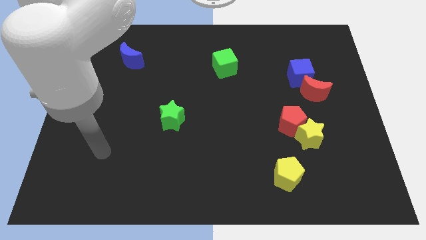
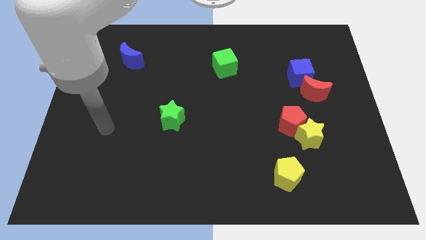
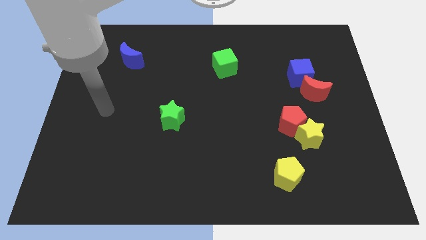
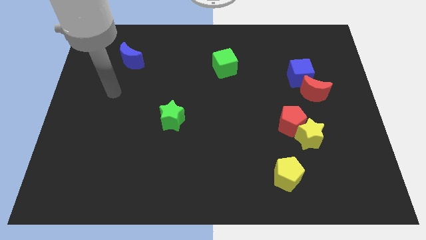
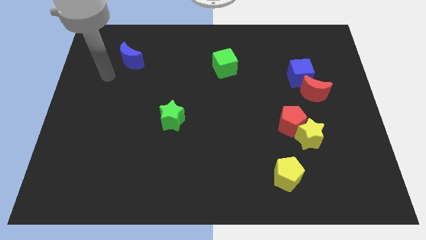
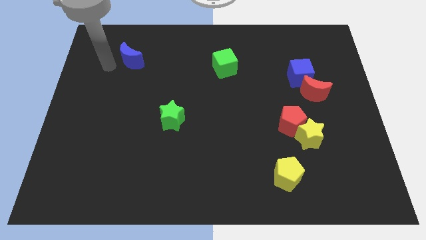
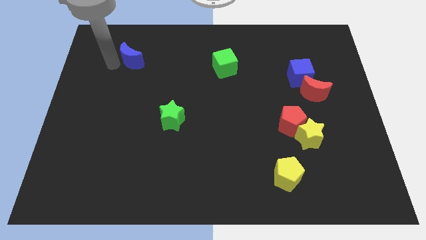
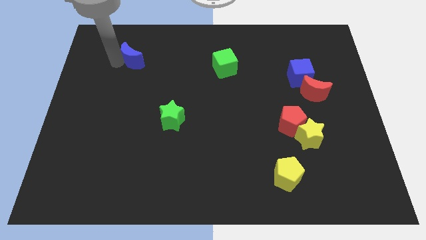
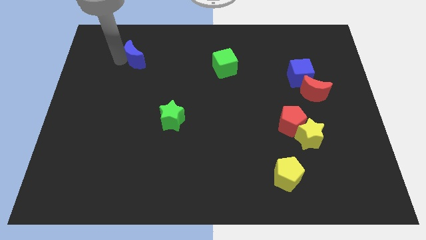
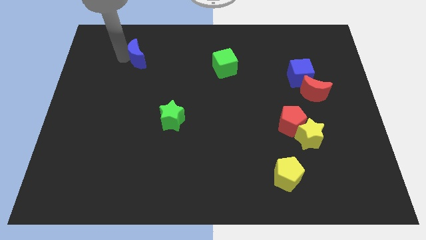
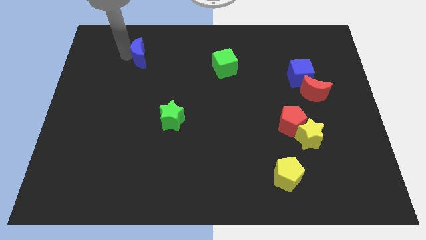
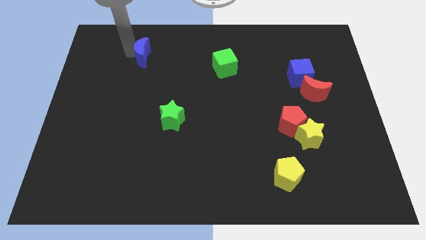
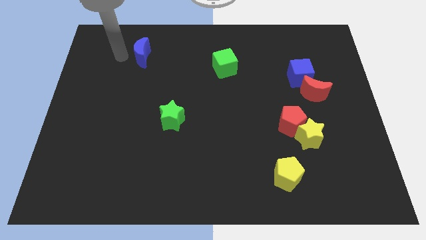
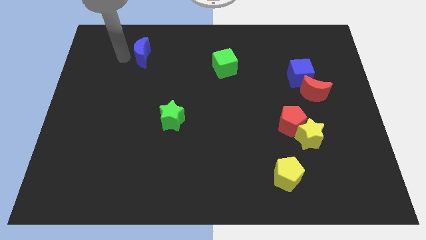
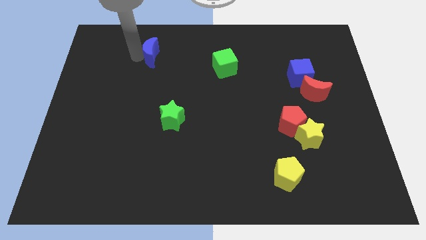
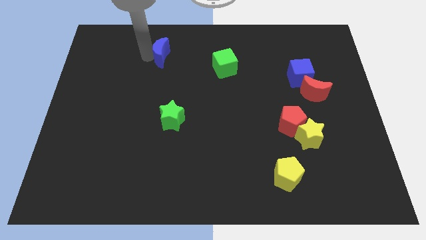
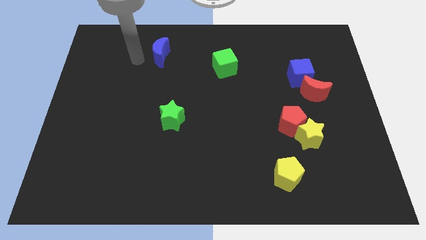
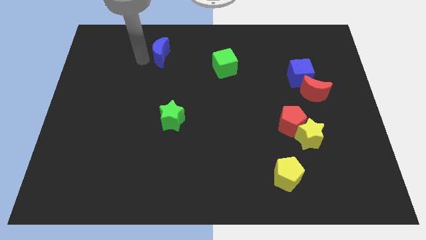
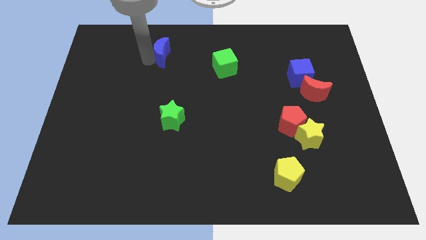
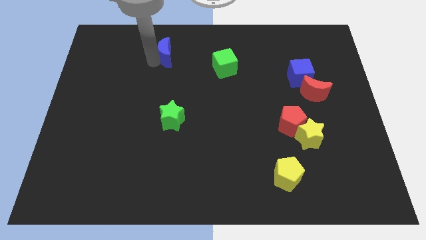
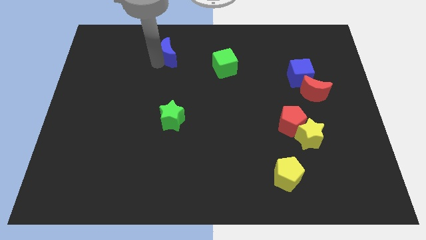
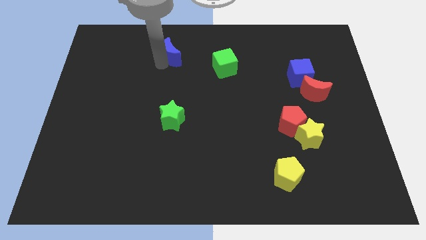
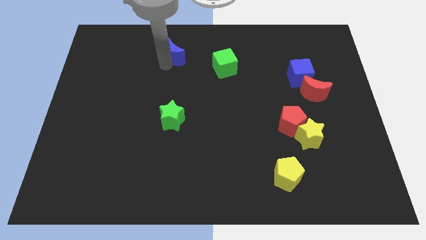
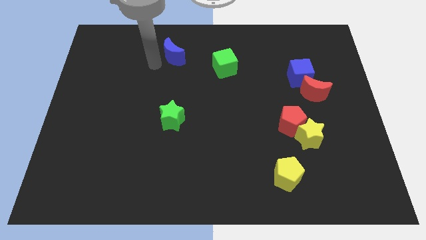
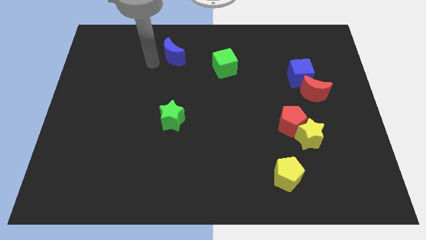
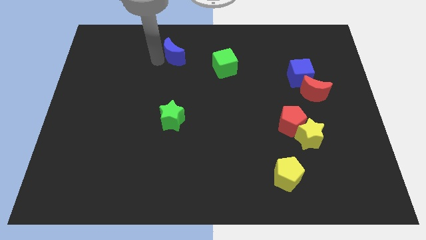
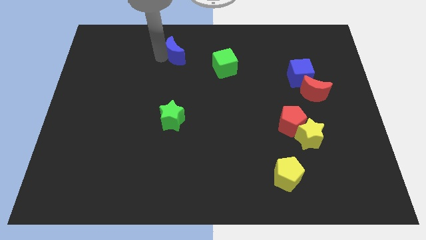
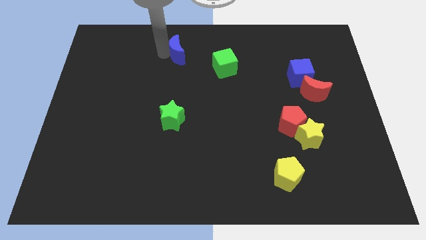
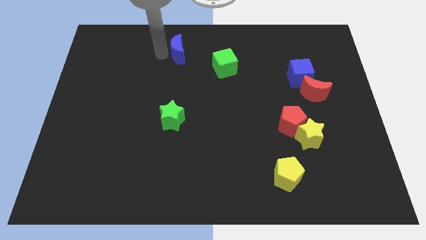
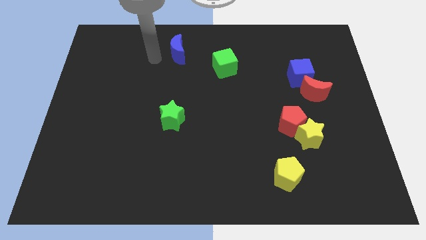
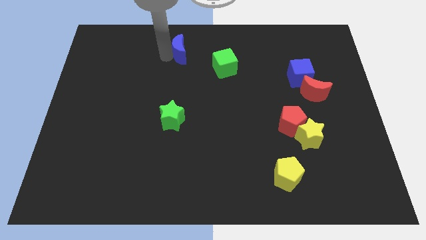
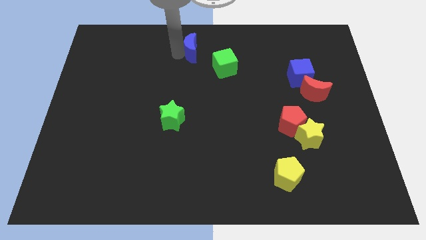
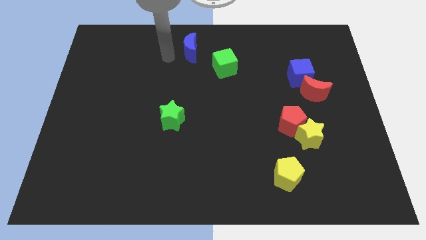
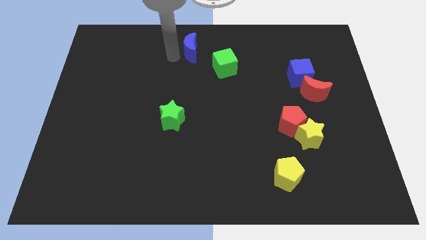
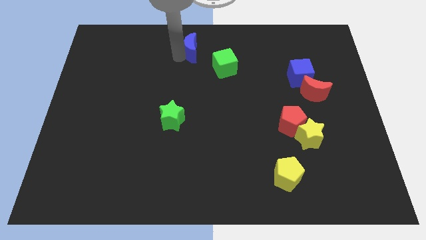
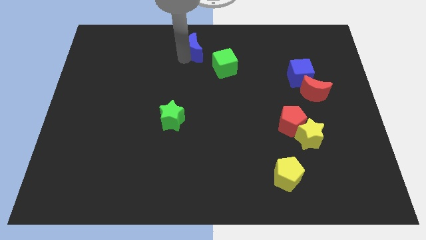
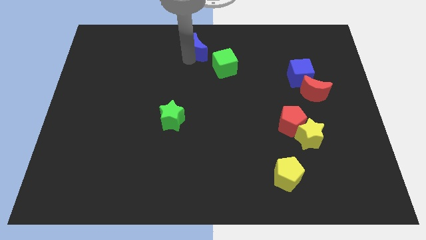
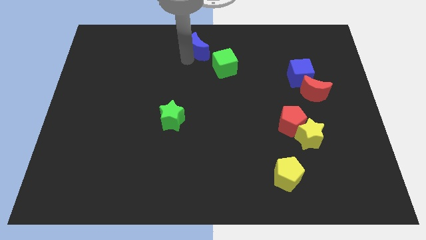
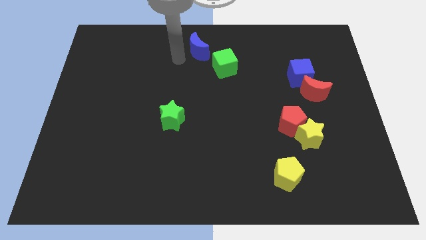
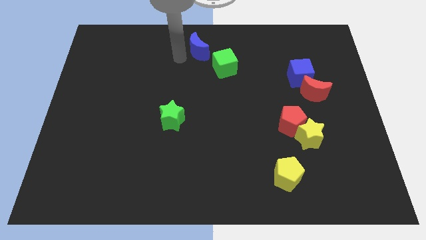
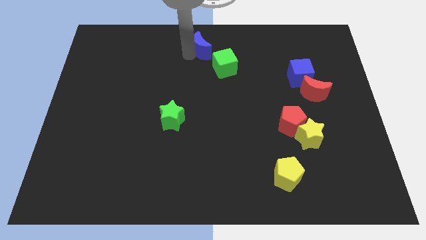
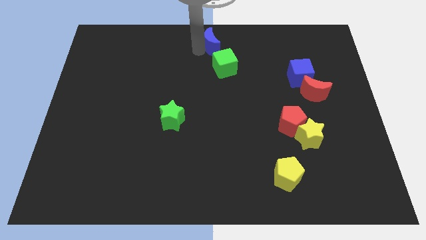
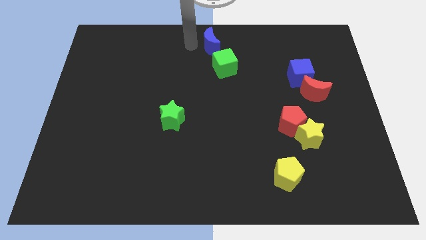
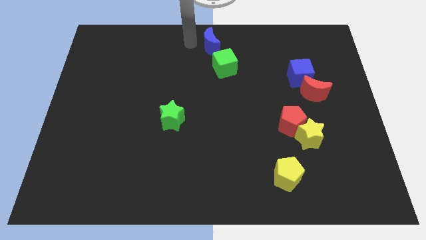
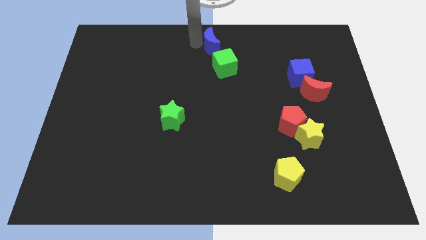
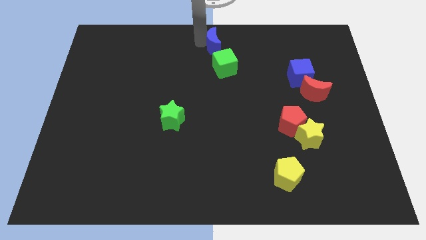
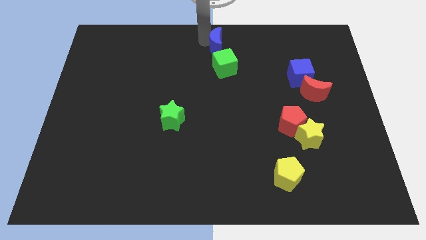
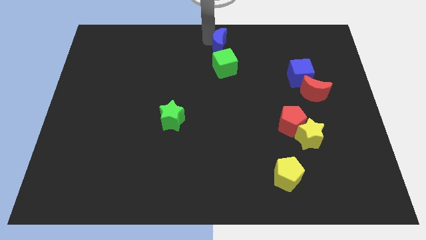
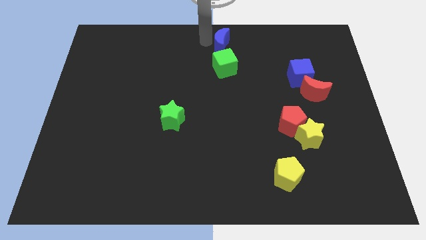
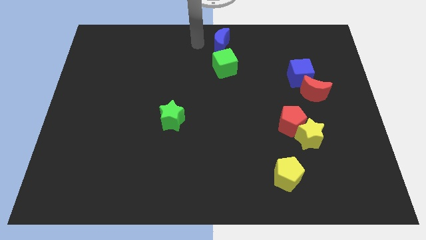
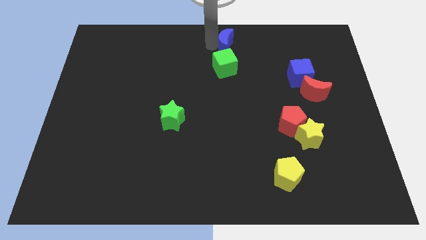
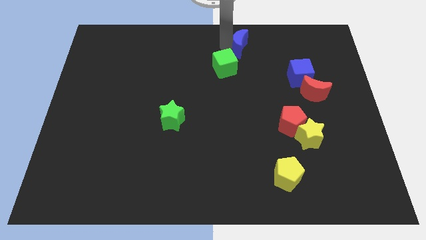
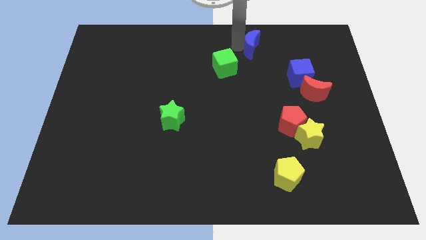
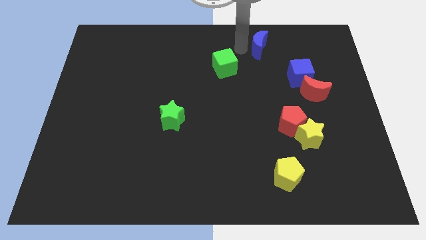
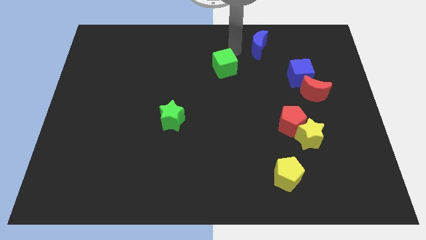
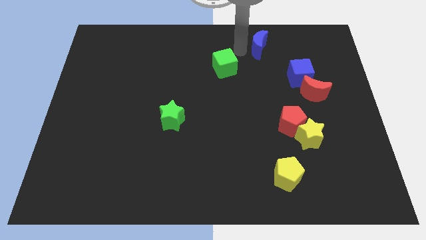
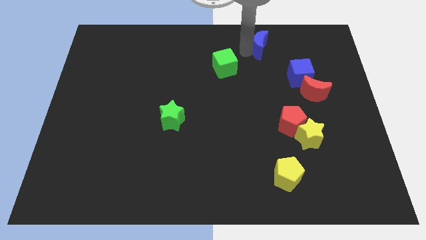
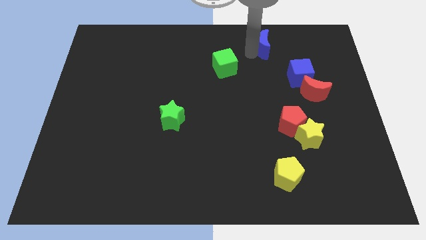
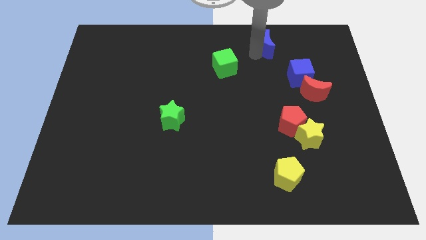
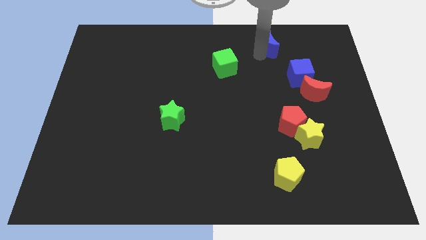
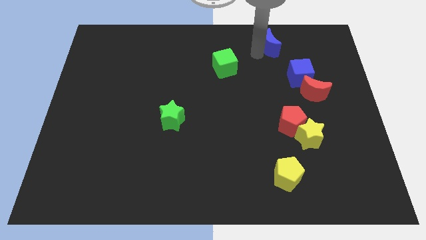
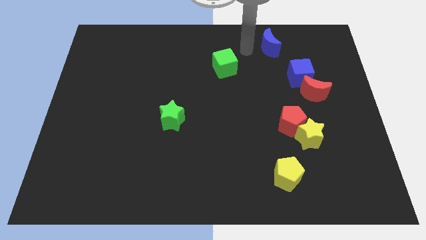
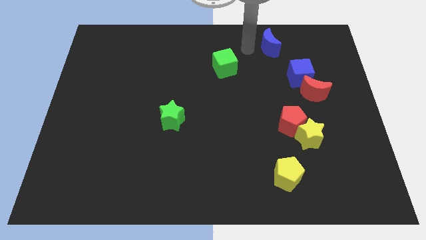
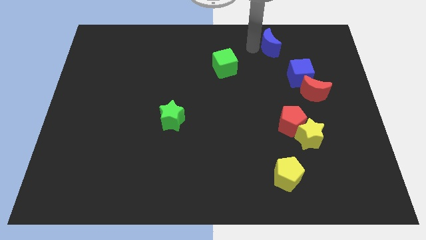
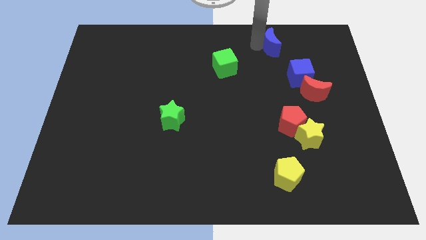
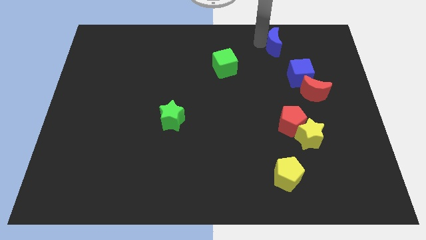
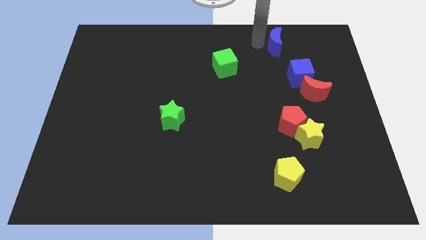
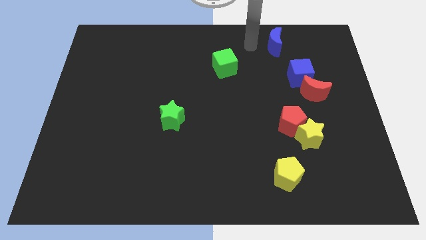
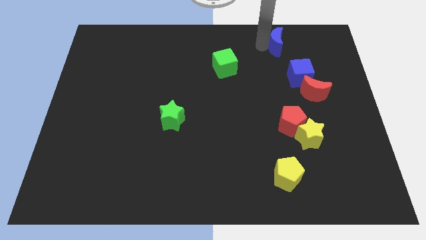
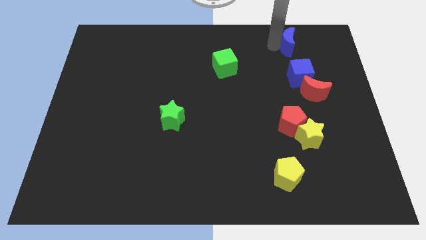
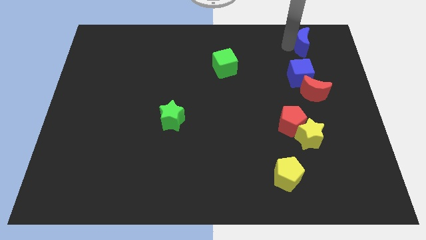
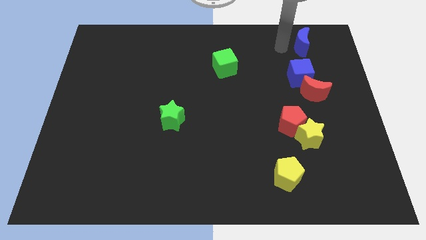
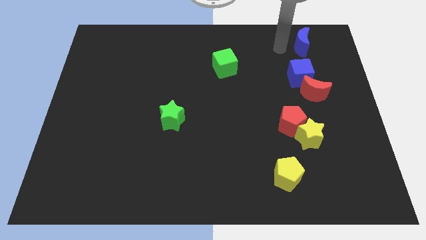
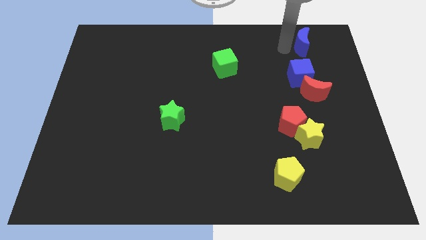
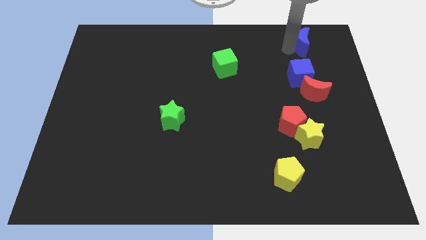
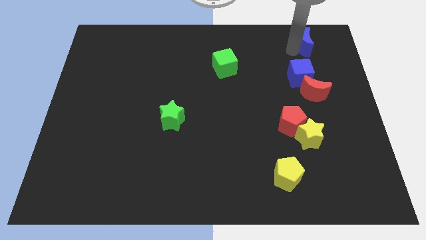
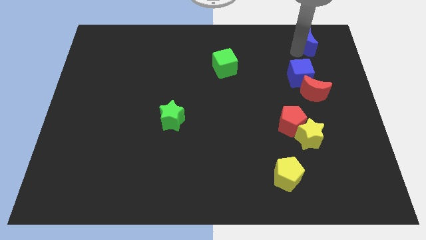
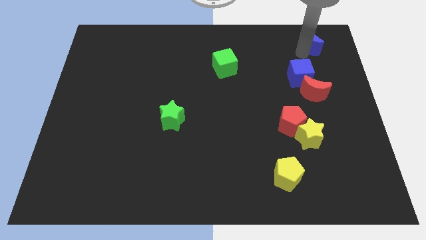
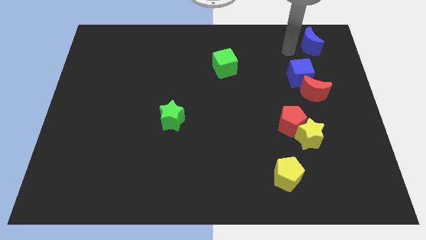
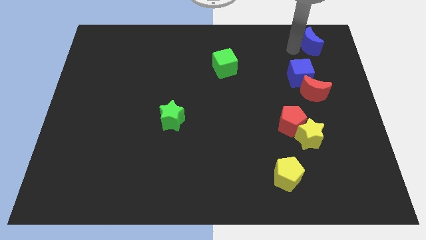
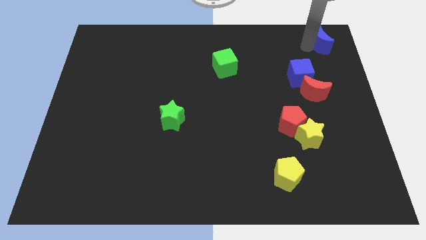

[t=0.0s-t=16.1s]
put the blue moon to the top right corner
